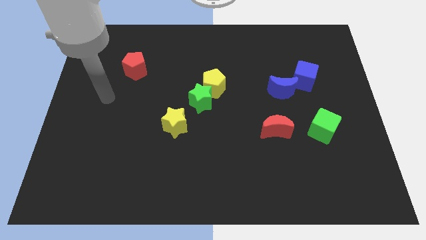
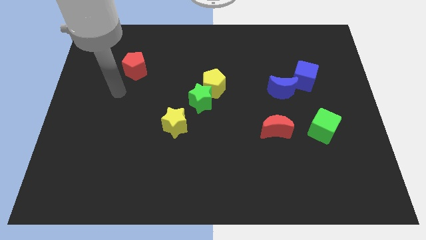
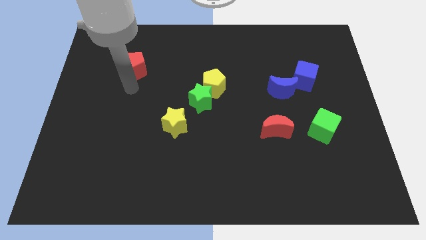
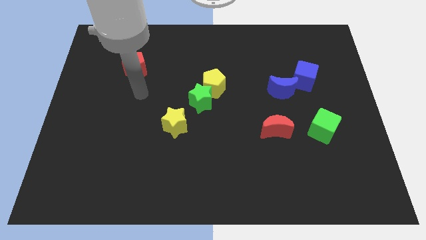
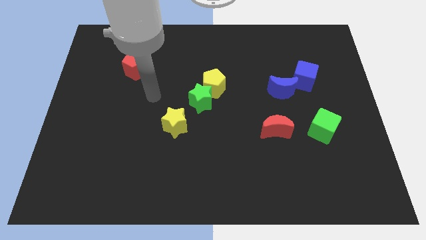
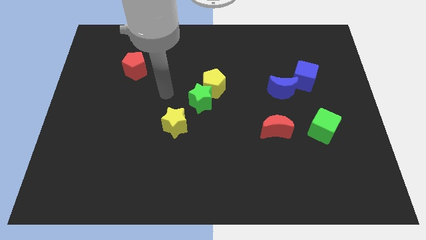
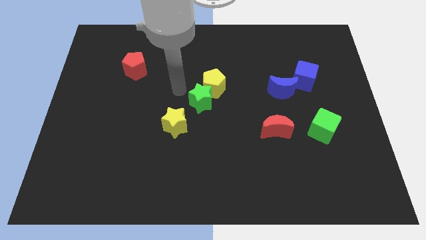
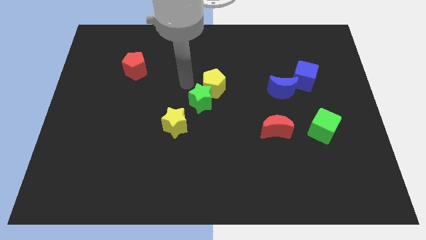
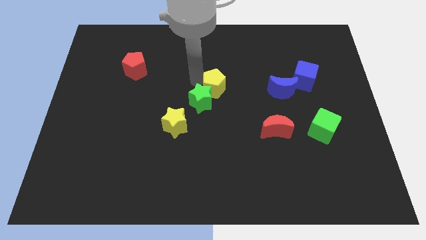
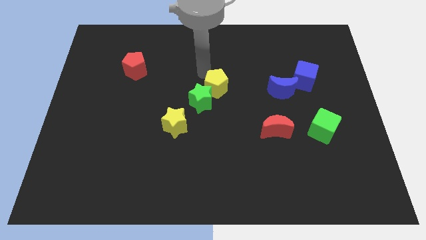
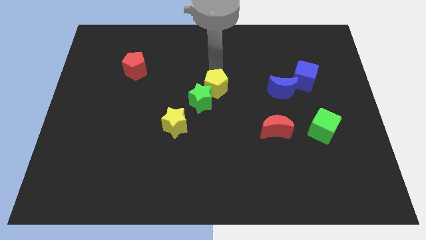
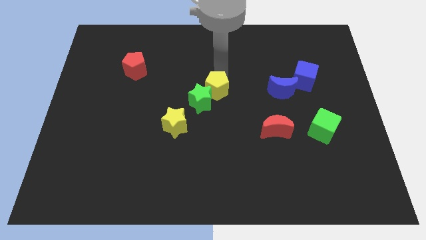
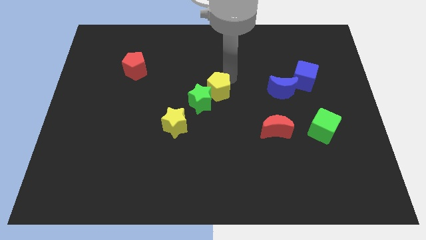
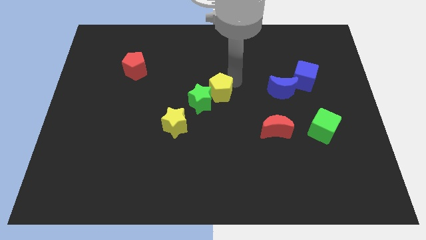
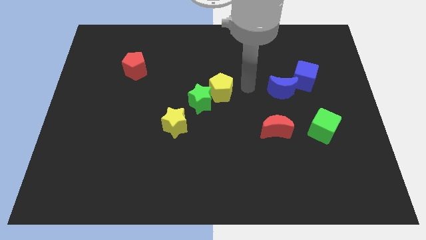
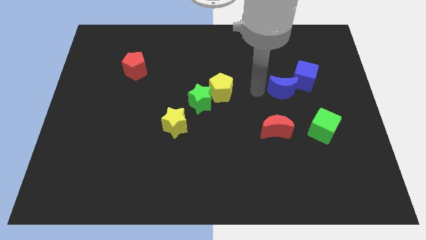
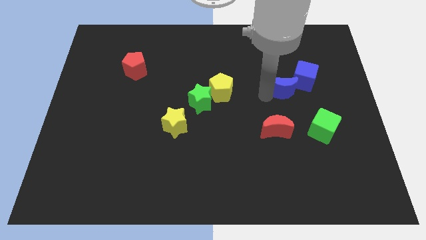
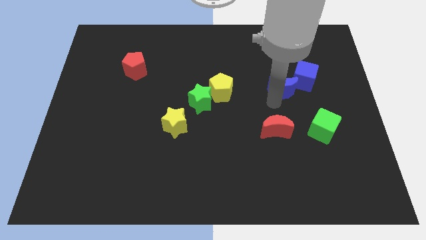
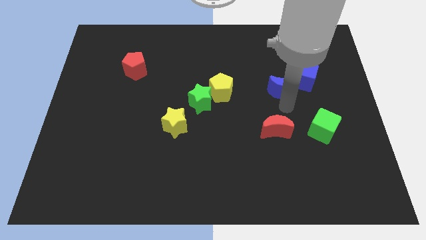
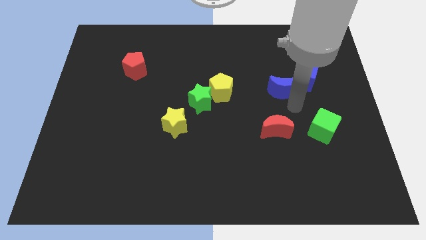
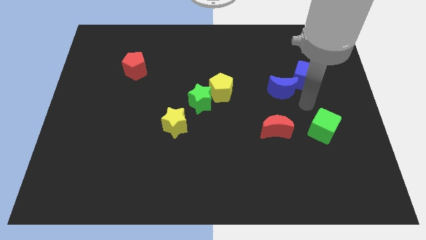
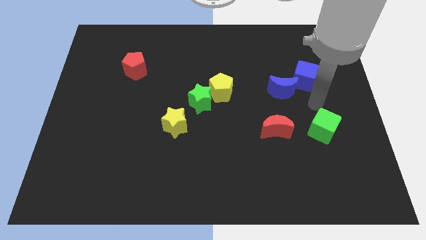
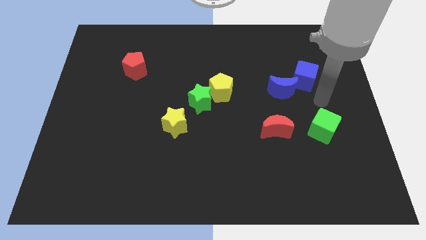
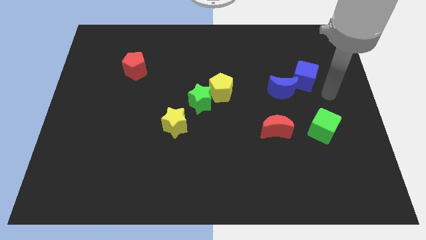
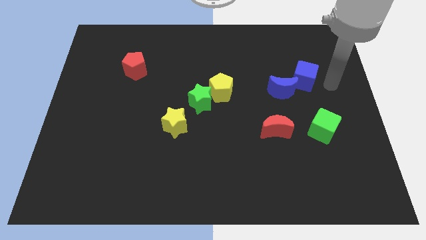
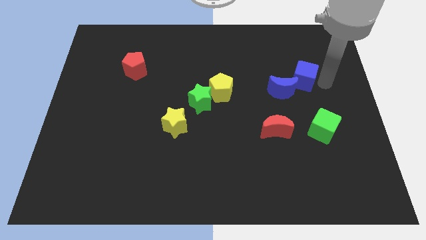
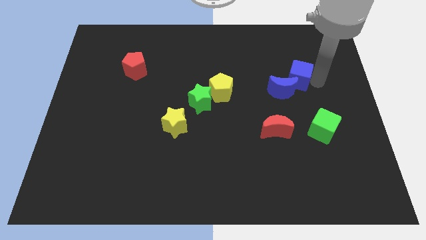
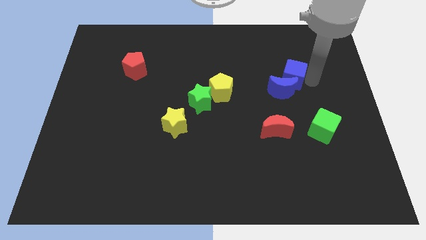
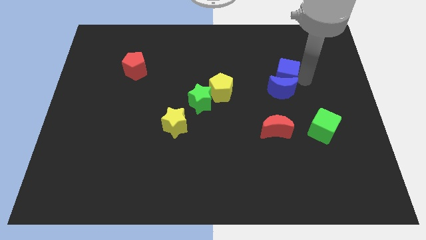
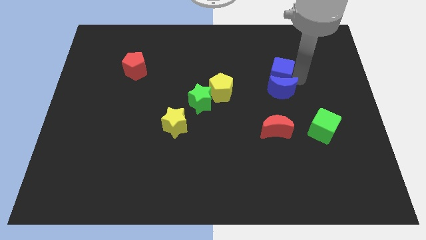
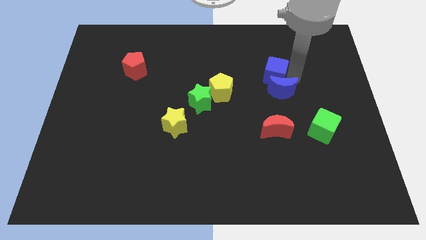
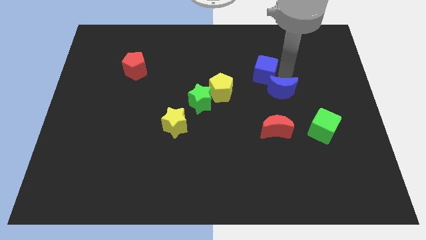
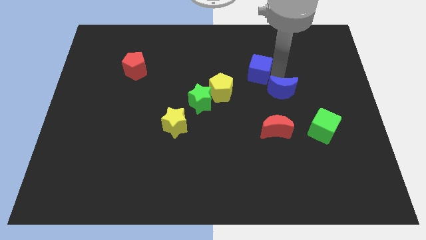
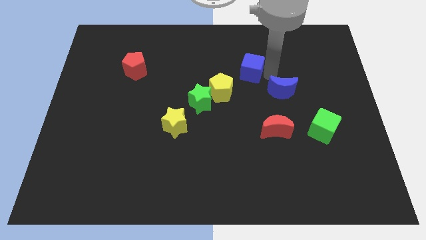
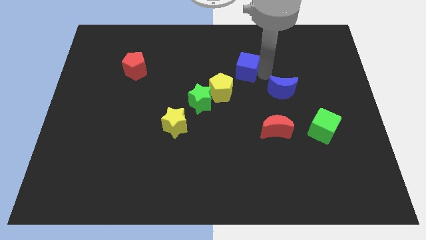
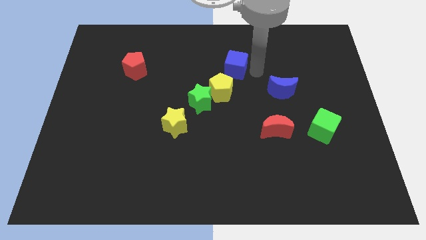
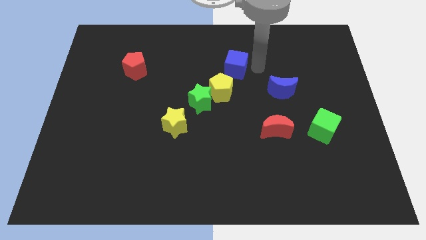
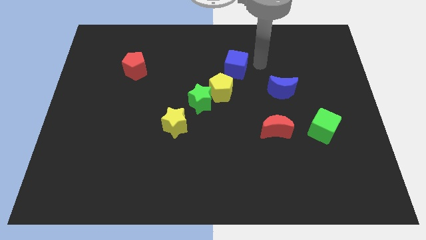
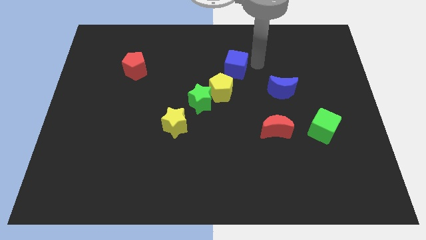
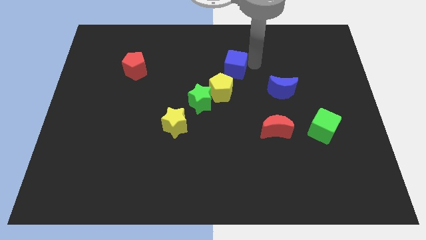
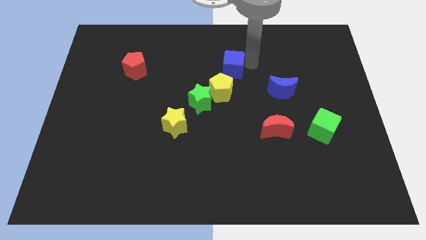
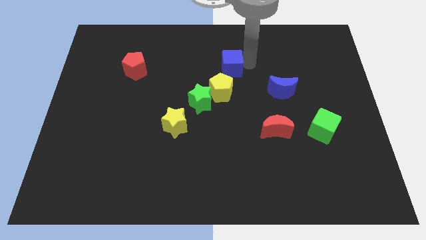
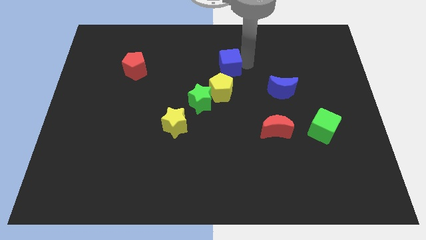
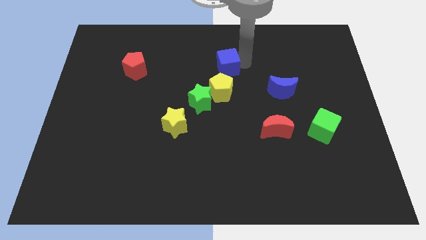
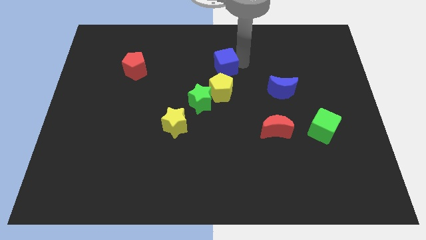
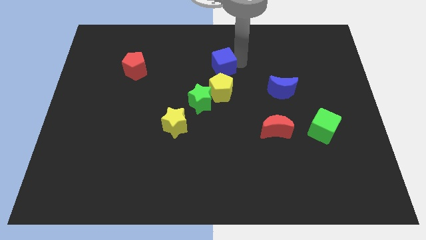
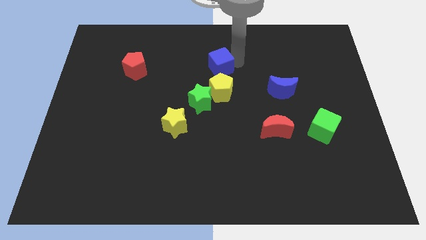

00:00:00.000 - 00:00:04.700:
move the blue cube to the left

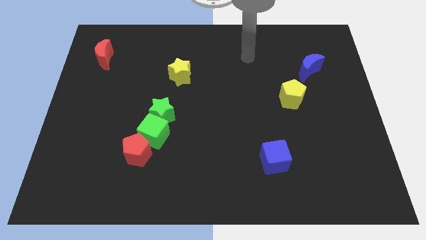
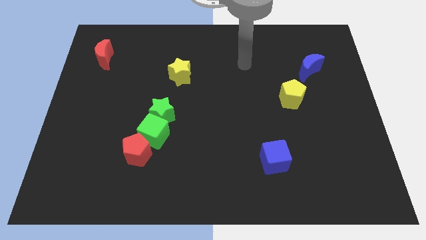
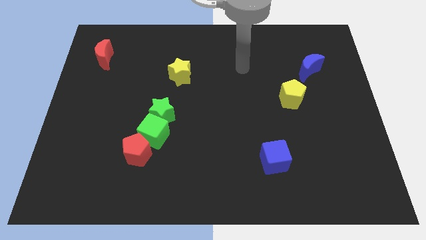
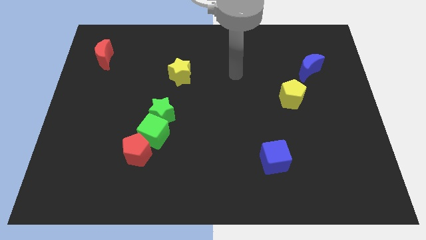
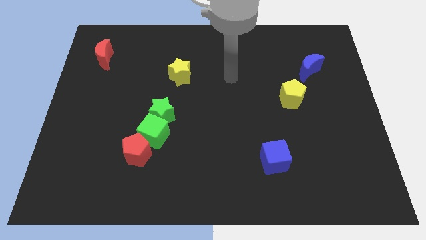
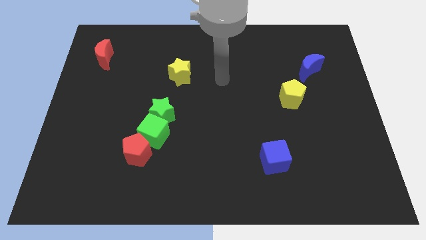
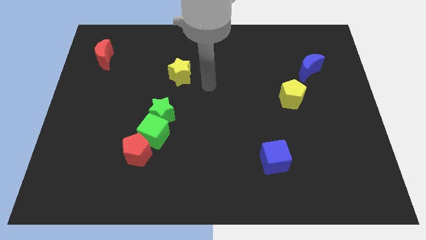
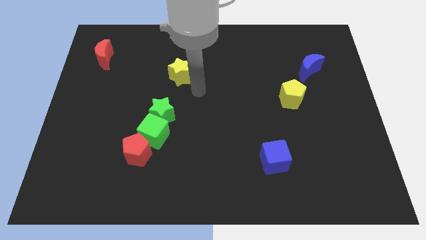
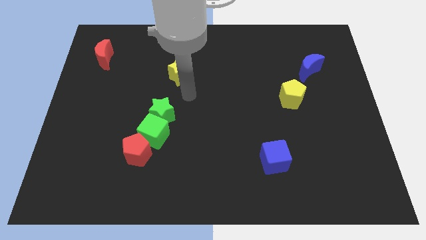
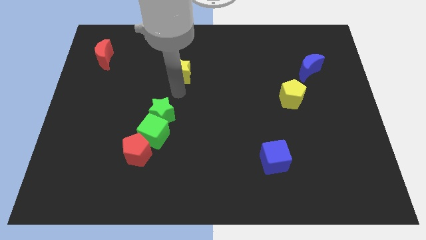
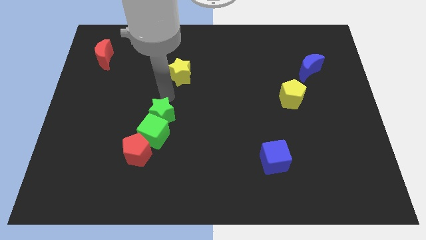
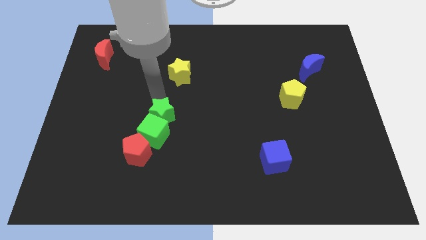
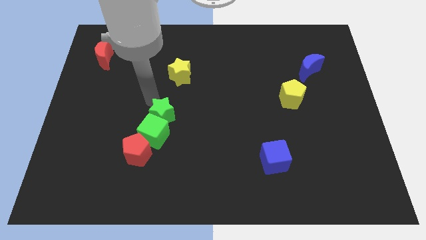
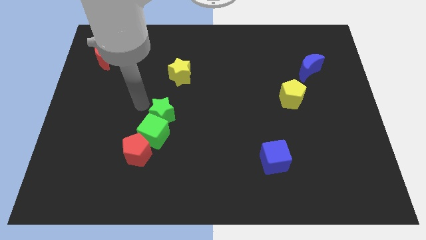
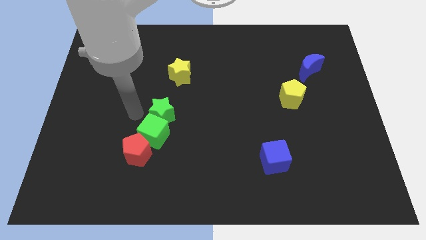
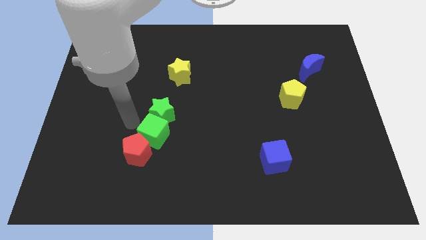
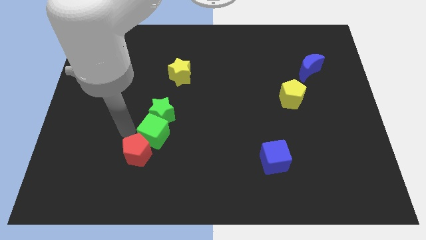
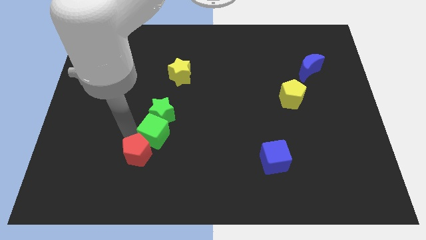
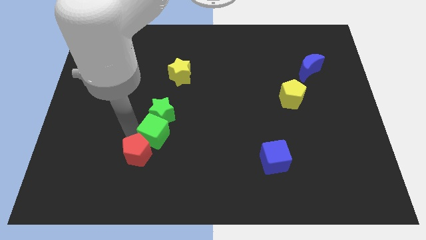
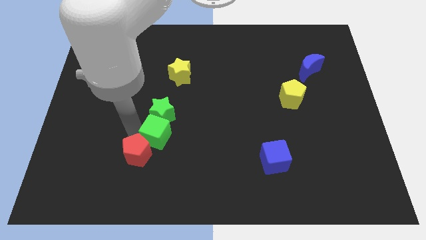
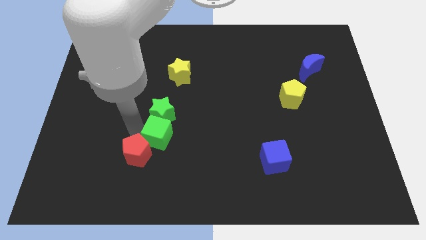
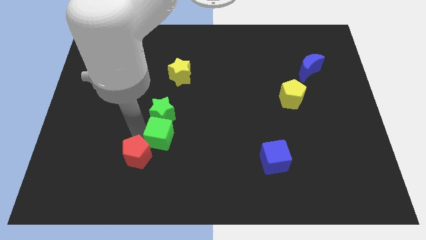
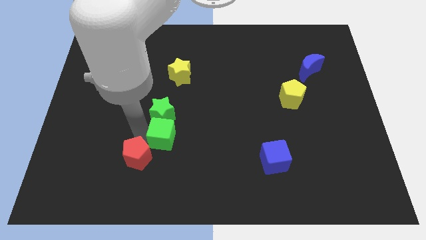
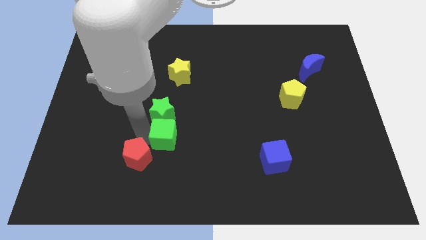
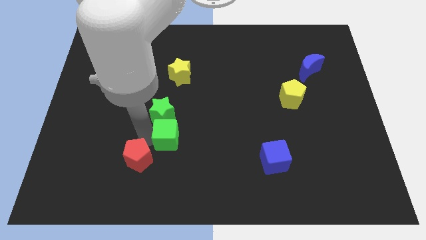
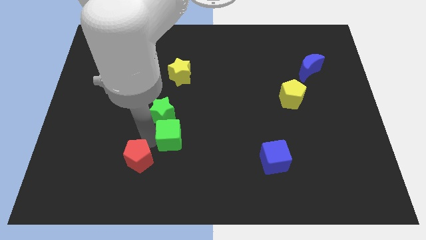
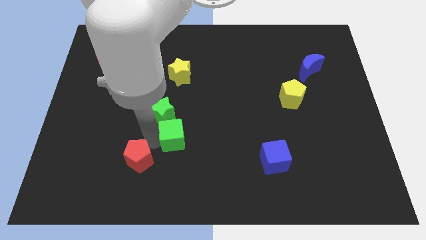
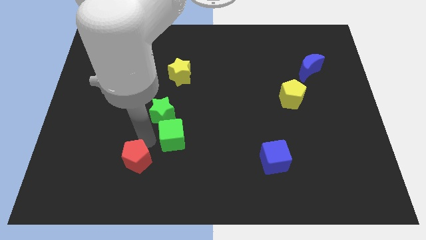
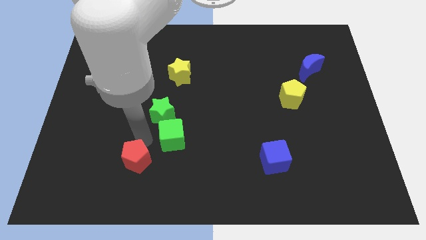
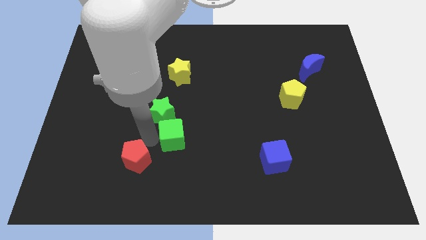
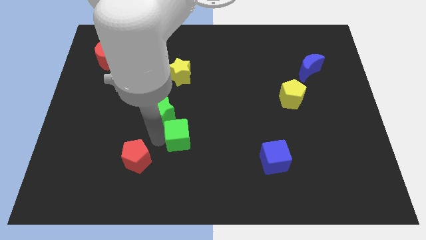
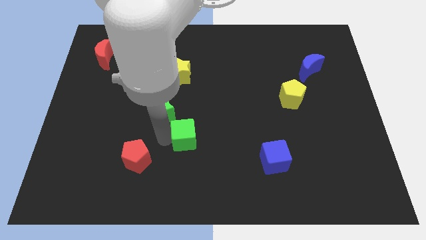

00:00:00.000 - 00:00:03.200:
push the green cube a bit right
